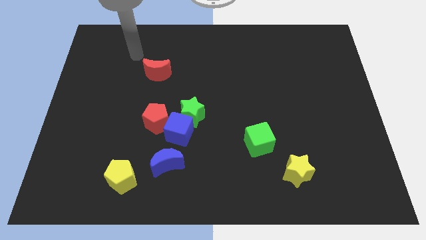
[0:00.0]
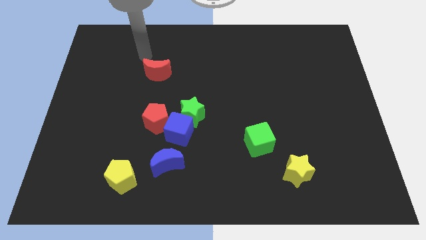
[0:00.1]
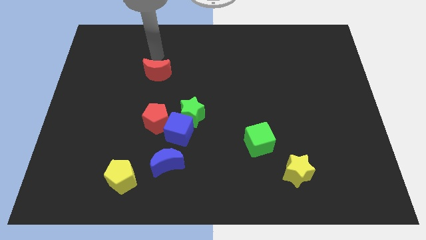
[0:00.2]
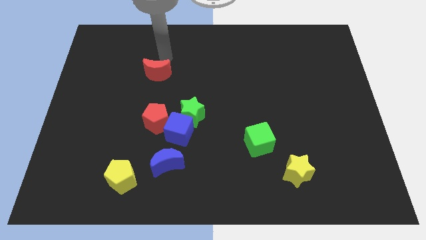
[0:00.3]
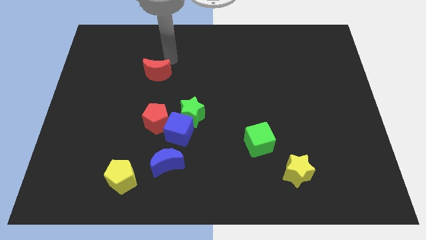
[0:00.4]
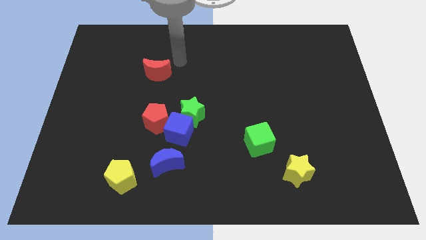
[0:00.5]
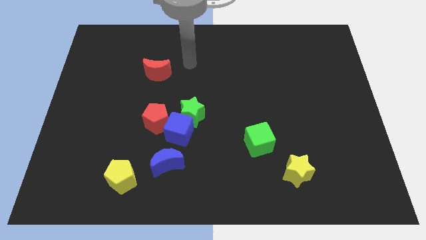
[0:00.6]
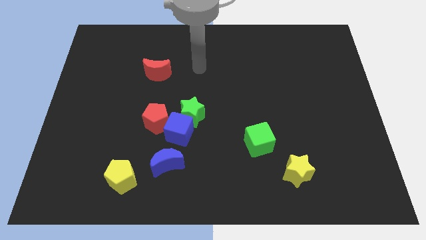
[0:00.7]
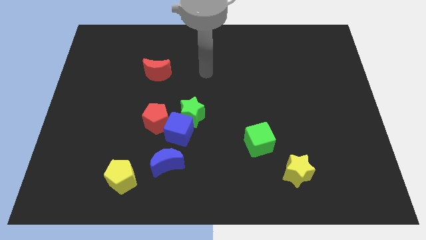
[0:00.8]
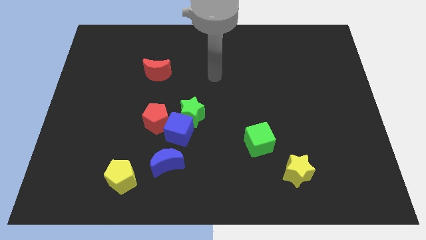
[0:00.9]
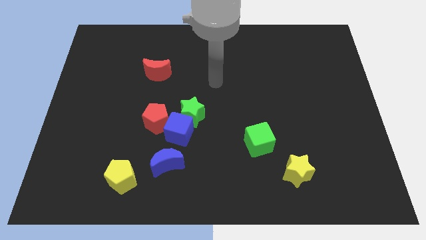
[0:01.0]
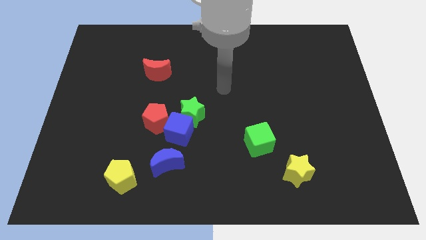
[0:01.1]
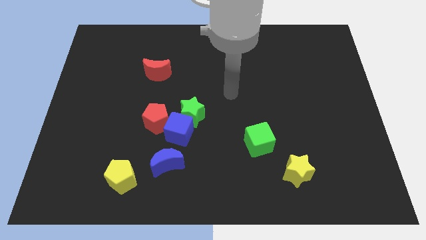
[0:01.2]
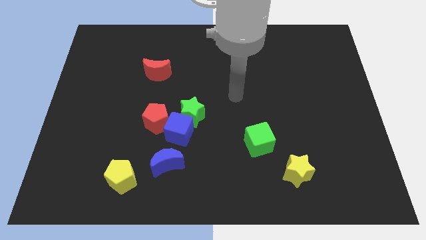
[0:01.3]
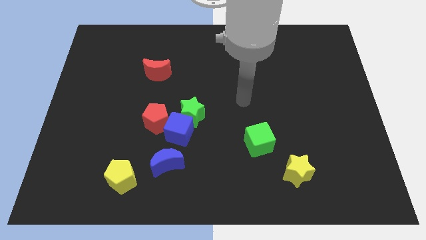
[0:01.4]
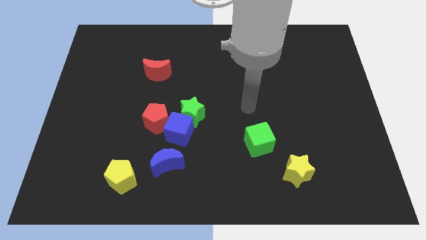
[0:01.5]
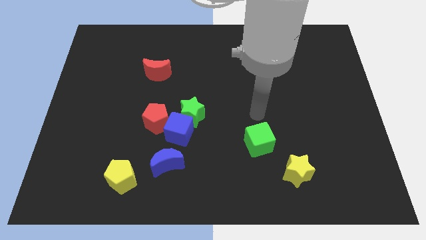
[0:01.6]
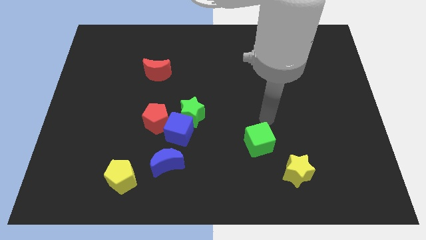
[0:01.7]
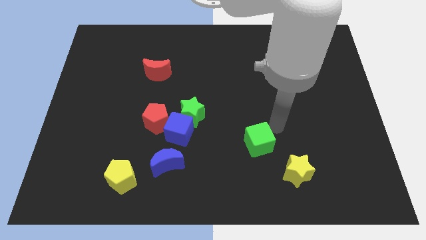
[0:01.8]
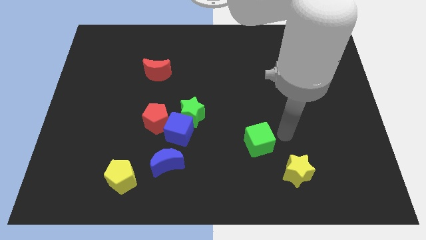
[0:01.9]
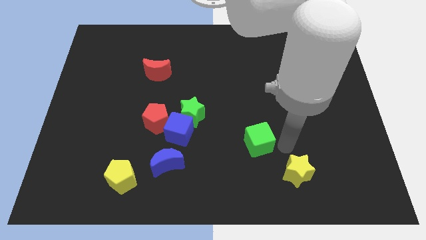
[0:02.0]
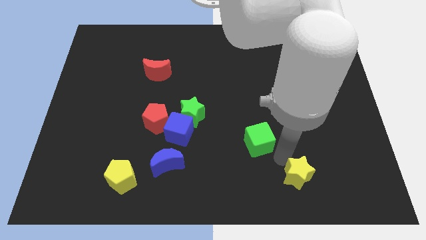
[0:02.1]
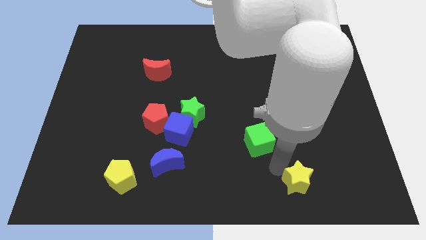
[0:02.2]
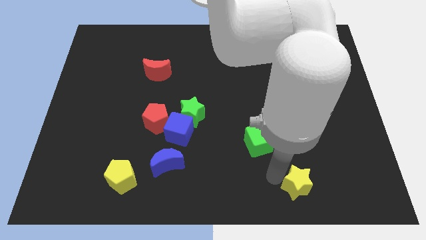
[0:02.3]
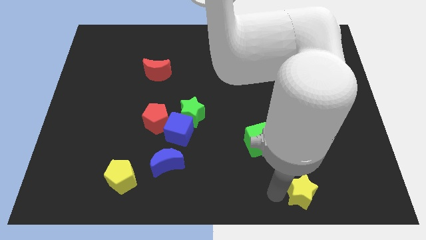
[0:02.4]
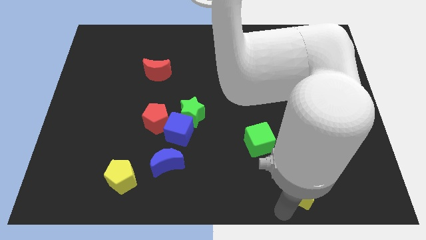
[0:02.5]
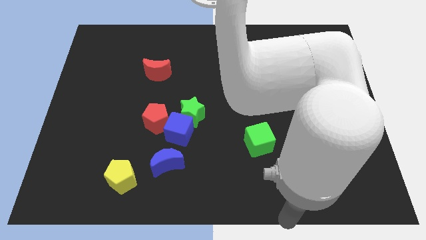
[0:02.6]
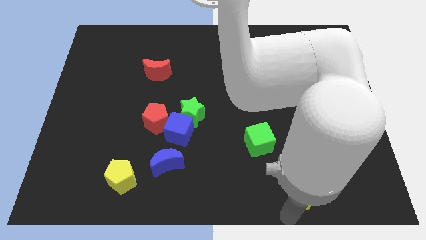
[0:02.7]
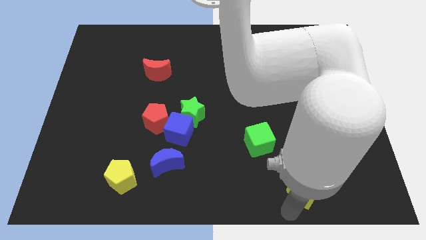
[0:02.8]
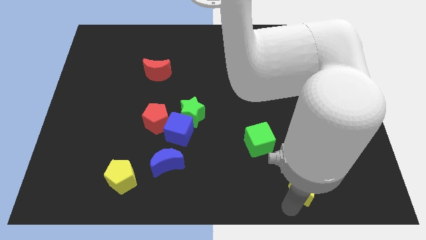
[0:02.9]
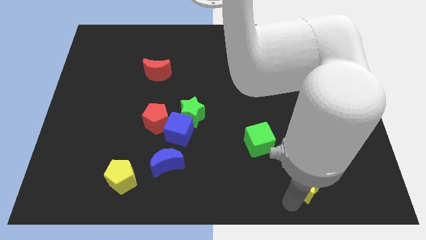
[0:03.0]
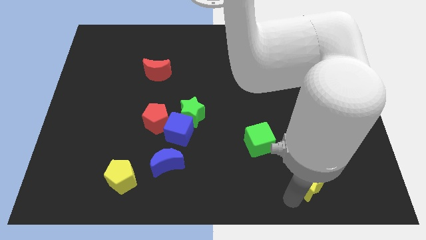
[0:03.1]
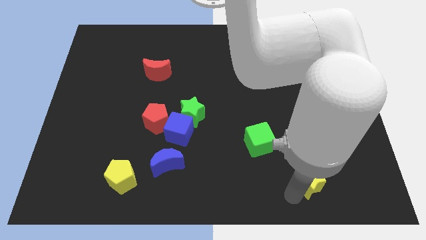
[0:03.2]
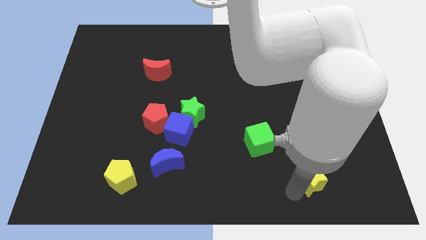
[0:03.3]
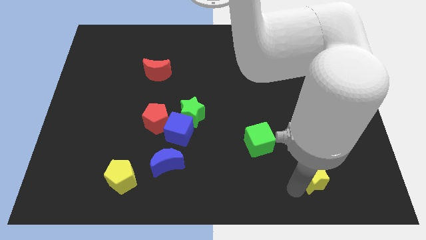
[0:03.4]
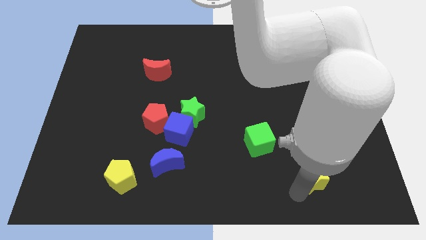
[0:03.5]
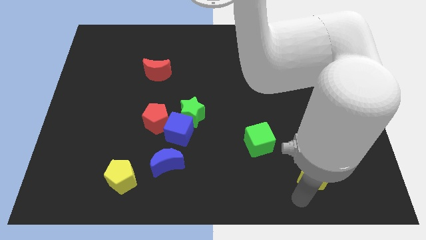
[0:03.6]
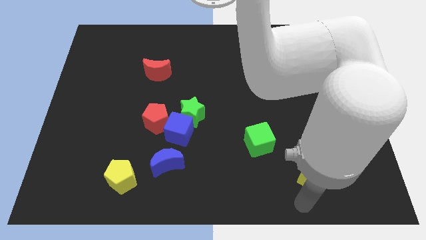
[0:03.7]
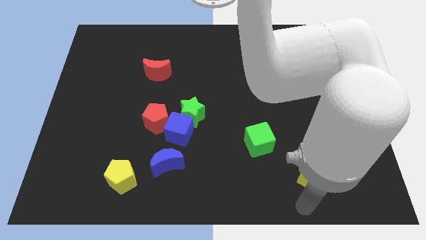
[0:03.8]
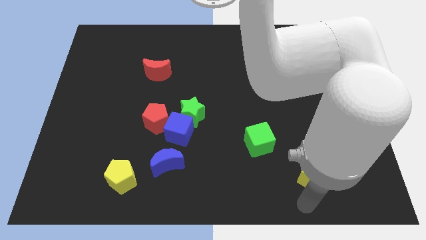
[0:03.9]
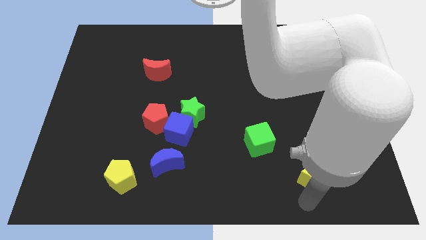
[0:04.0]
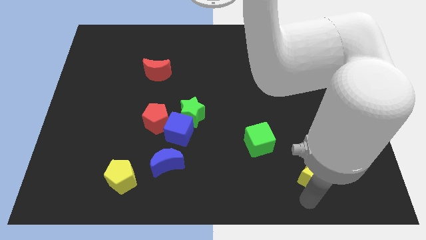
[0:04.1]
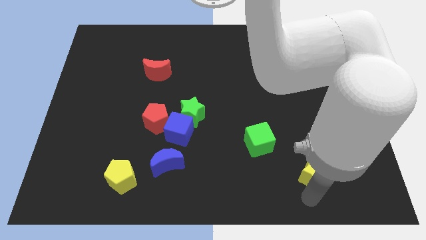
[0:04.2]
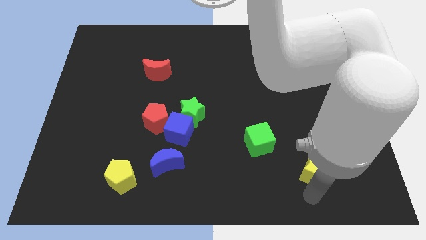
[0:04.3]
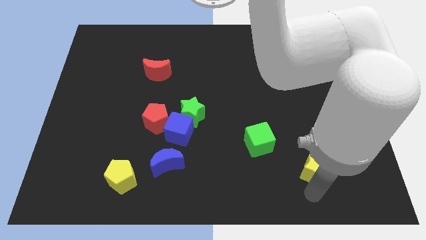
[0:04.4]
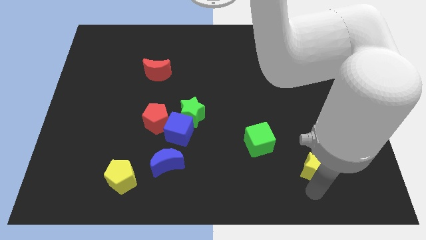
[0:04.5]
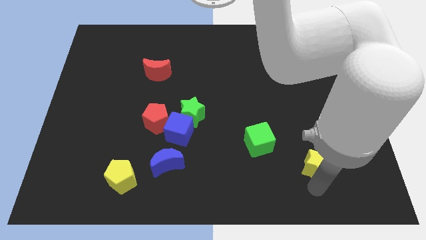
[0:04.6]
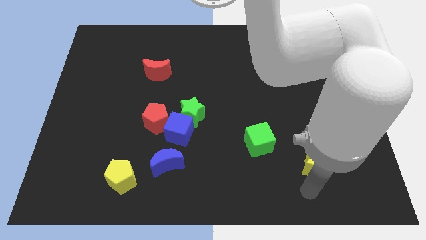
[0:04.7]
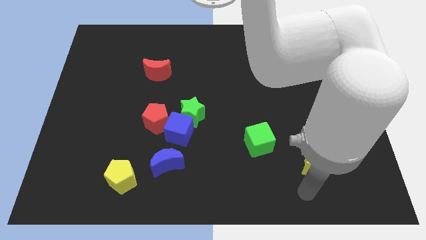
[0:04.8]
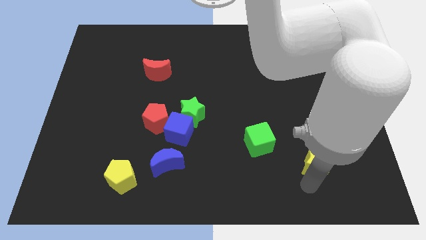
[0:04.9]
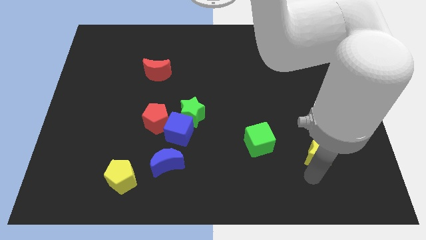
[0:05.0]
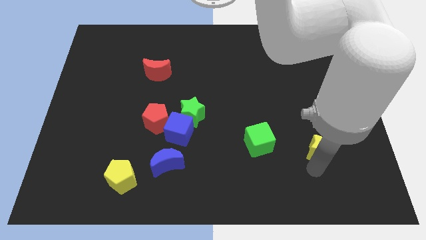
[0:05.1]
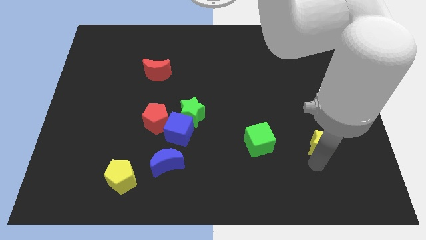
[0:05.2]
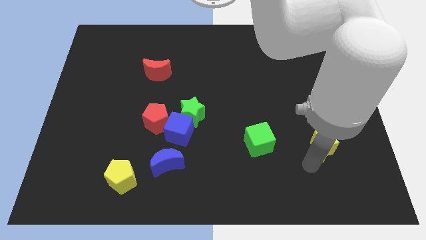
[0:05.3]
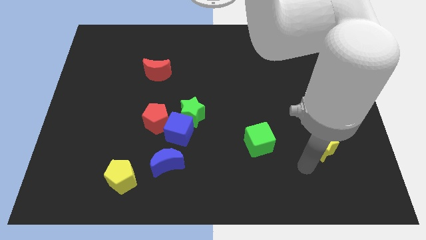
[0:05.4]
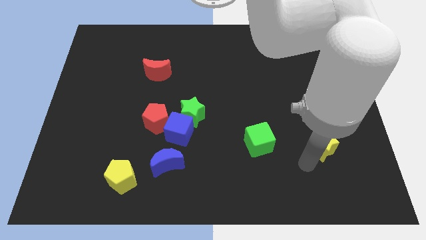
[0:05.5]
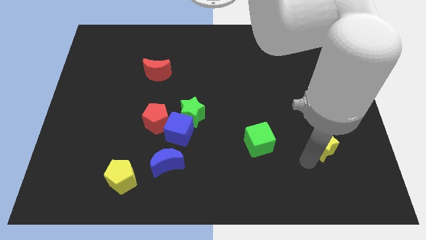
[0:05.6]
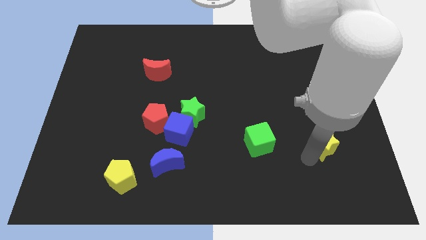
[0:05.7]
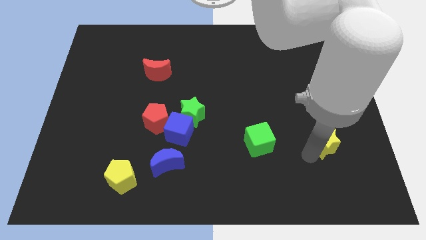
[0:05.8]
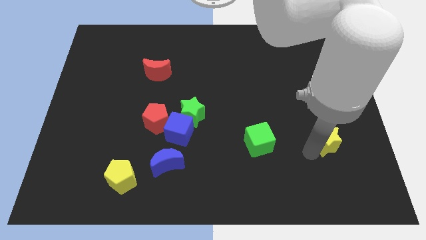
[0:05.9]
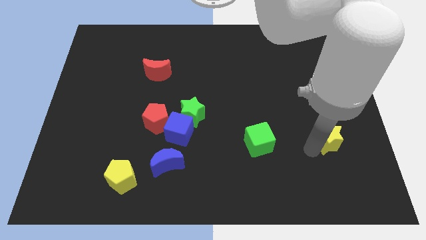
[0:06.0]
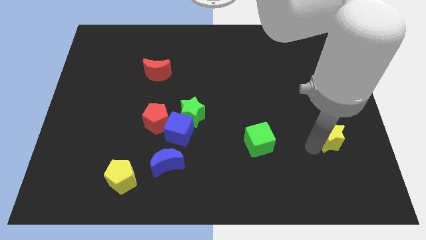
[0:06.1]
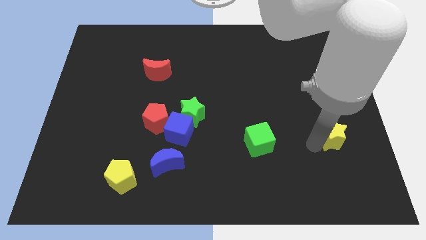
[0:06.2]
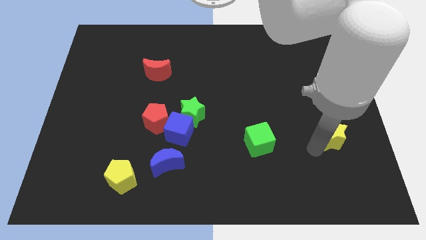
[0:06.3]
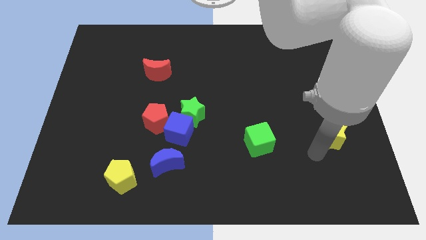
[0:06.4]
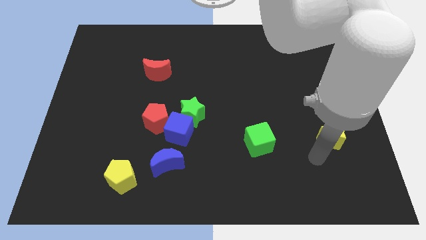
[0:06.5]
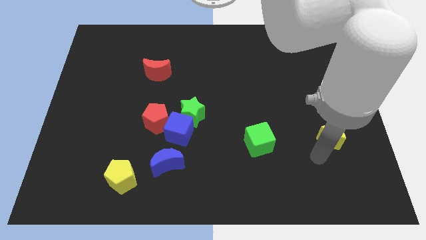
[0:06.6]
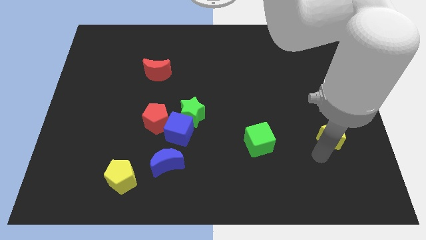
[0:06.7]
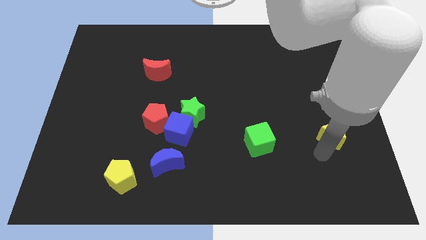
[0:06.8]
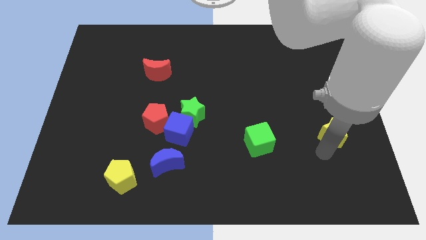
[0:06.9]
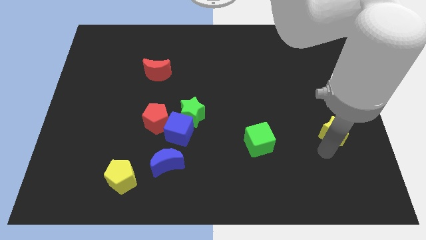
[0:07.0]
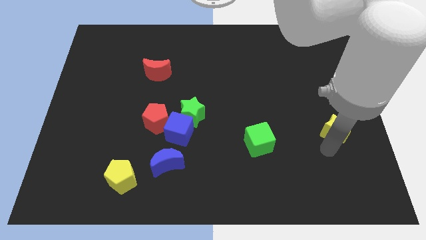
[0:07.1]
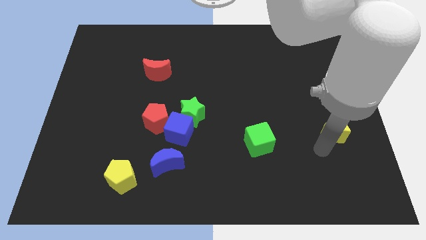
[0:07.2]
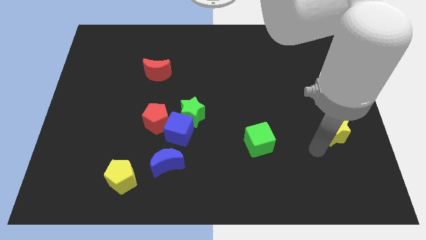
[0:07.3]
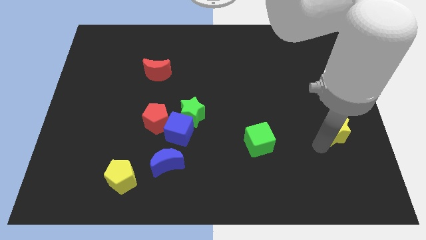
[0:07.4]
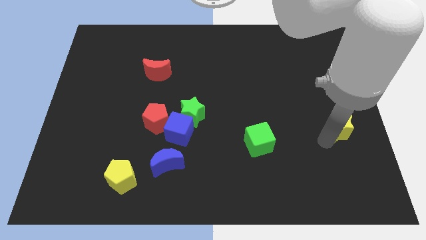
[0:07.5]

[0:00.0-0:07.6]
slide the yellow star to the right side
